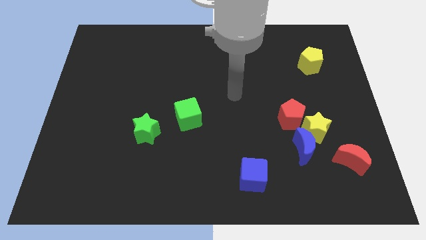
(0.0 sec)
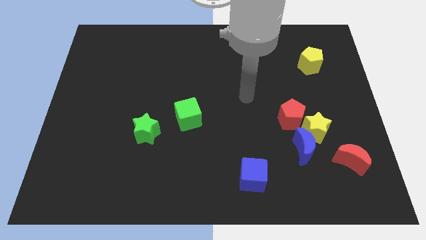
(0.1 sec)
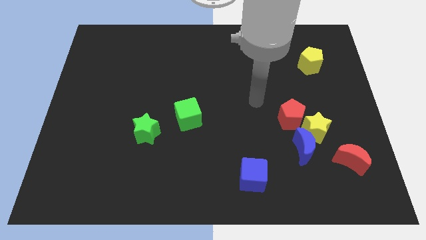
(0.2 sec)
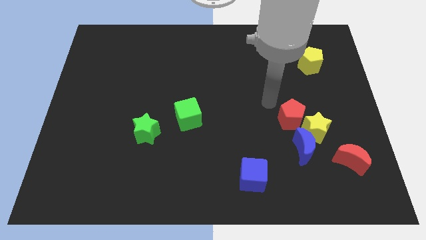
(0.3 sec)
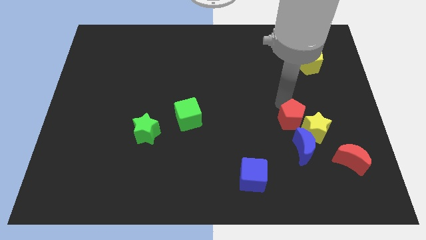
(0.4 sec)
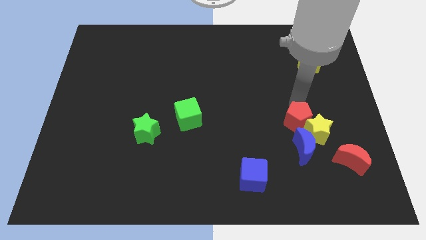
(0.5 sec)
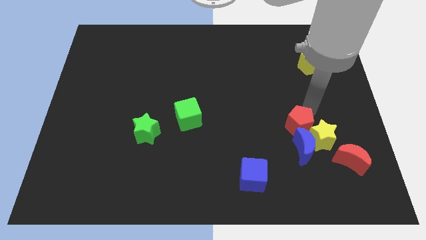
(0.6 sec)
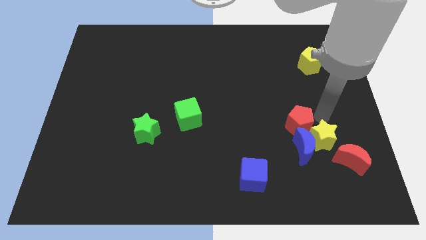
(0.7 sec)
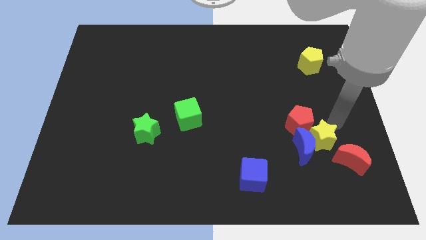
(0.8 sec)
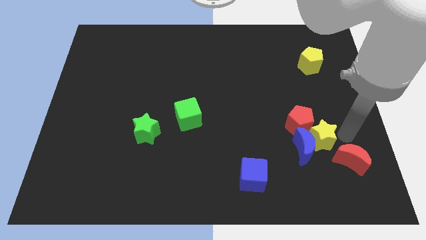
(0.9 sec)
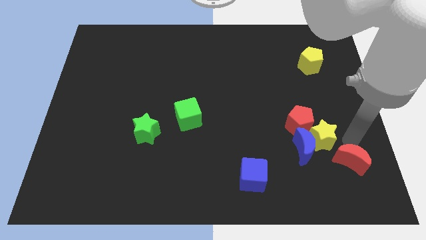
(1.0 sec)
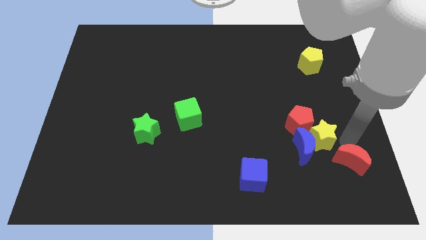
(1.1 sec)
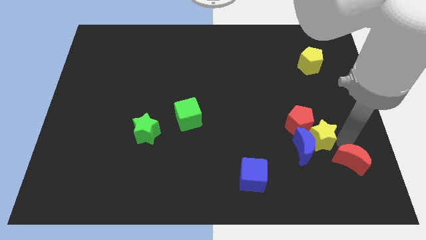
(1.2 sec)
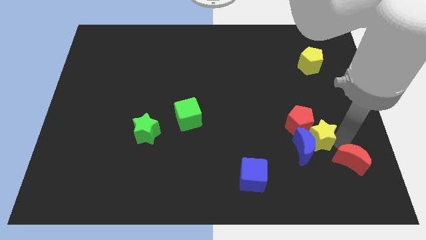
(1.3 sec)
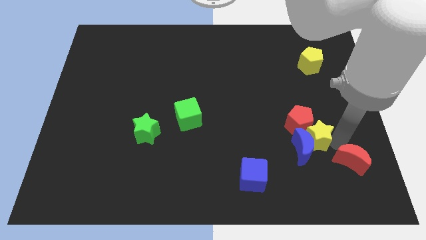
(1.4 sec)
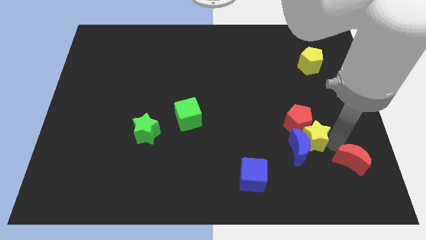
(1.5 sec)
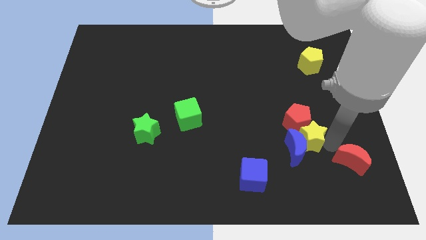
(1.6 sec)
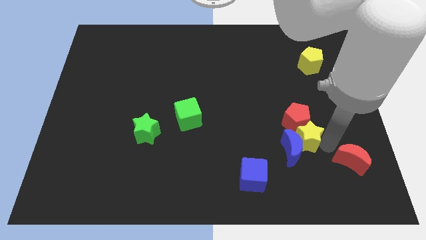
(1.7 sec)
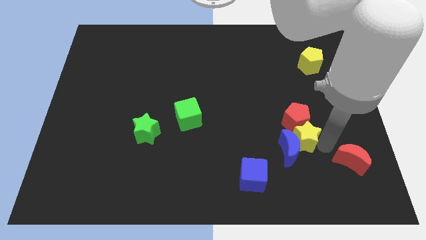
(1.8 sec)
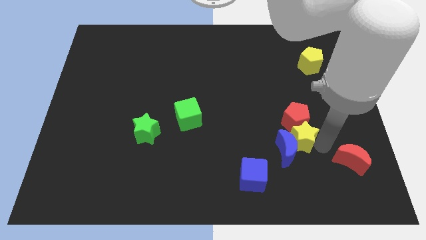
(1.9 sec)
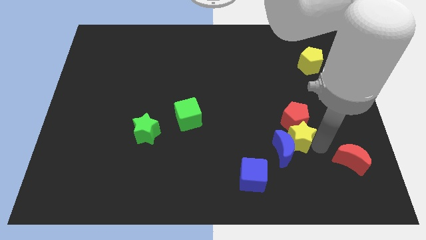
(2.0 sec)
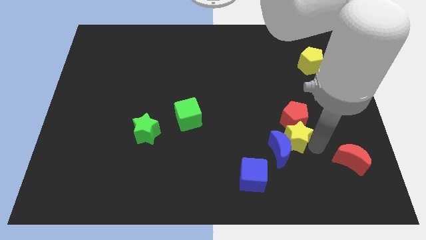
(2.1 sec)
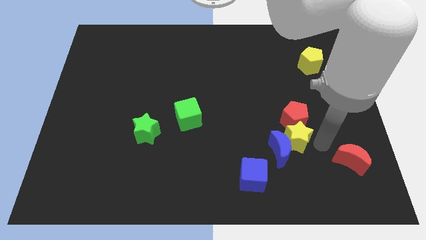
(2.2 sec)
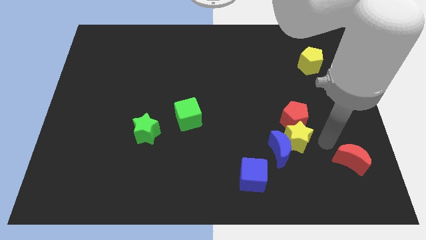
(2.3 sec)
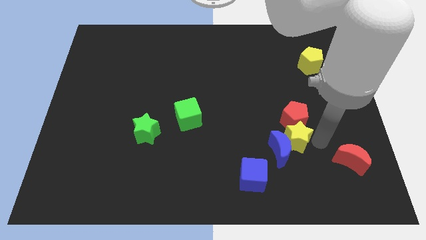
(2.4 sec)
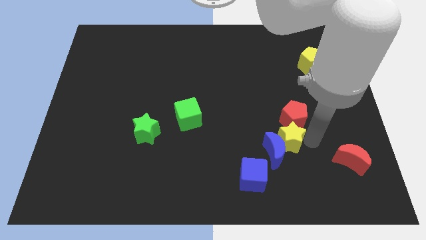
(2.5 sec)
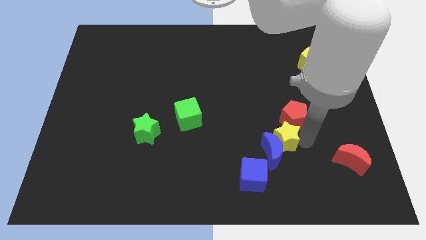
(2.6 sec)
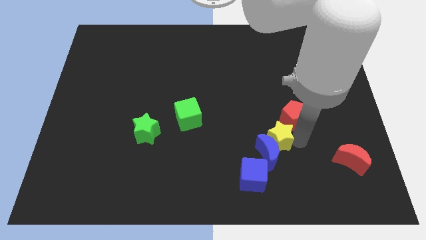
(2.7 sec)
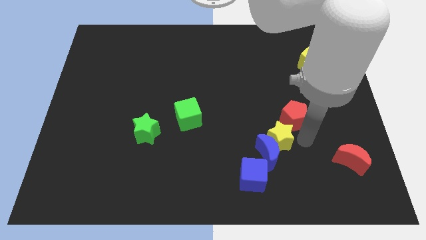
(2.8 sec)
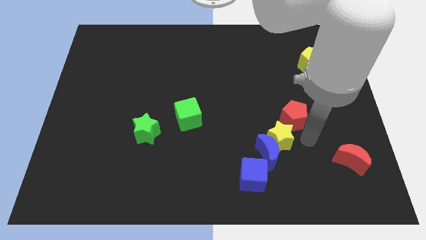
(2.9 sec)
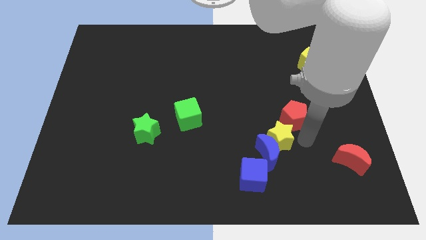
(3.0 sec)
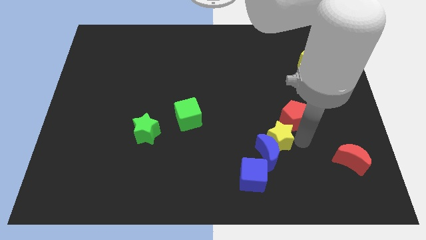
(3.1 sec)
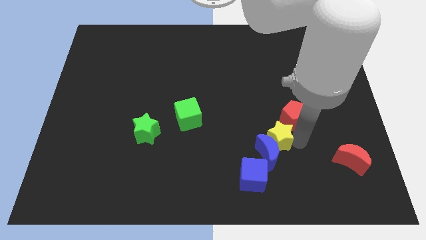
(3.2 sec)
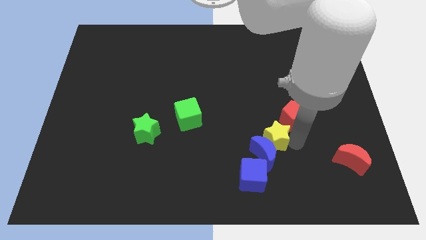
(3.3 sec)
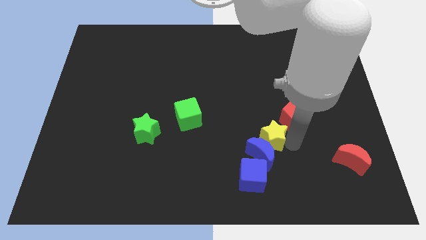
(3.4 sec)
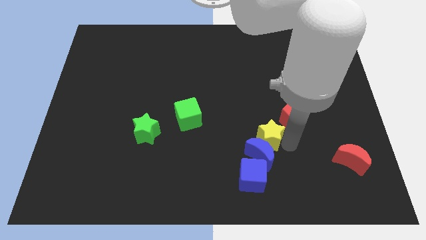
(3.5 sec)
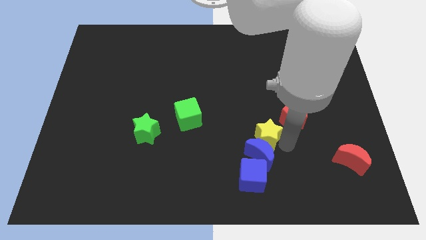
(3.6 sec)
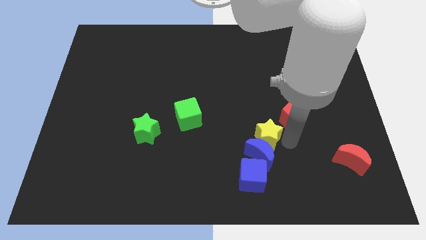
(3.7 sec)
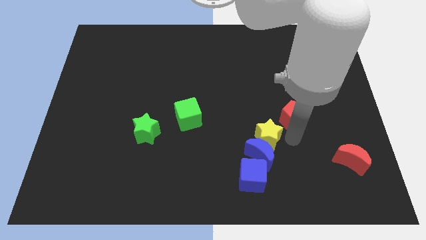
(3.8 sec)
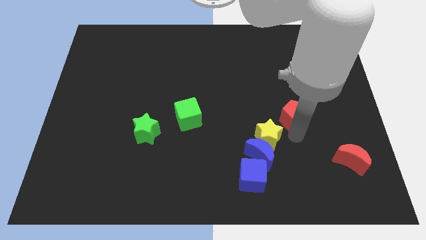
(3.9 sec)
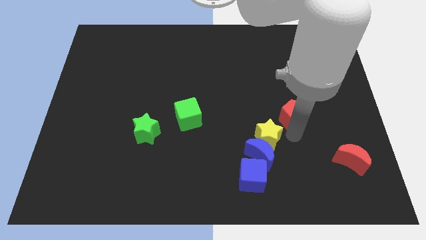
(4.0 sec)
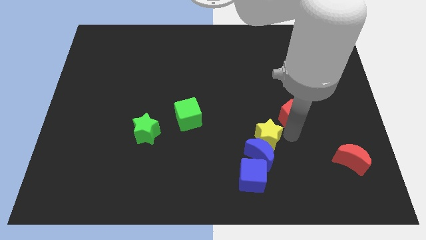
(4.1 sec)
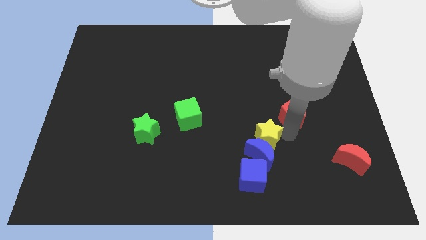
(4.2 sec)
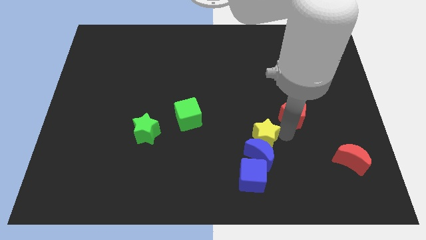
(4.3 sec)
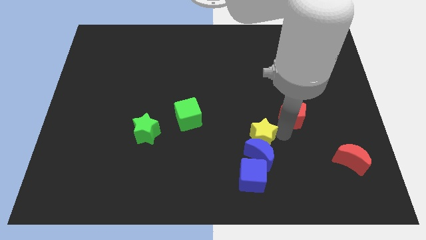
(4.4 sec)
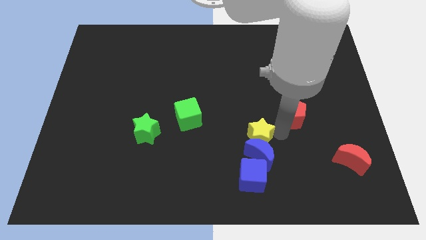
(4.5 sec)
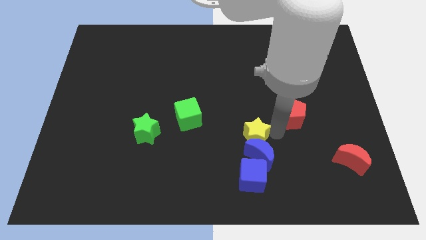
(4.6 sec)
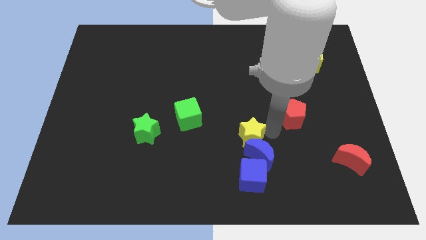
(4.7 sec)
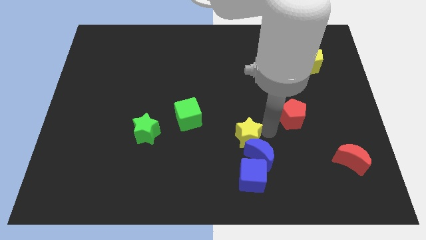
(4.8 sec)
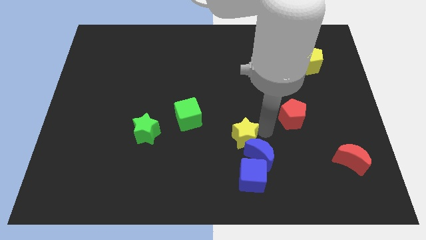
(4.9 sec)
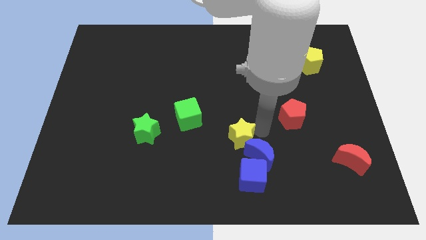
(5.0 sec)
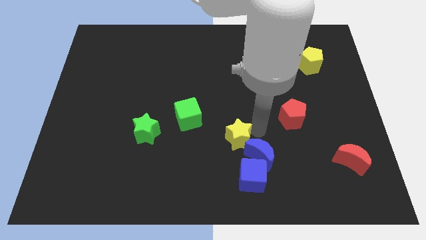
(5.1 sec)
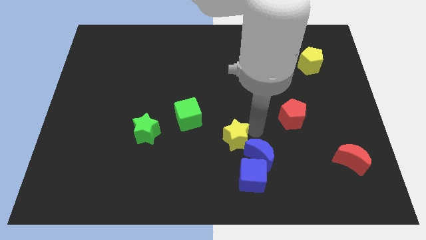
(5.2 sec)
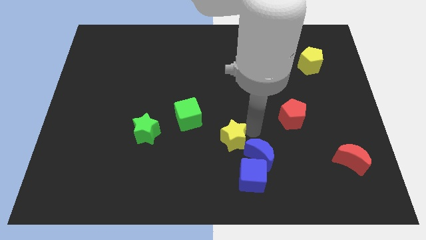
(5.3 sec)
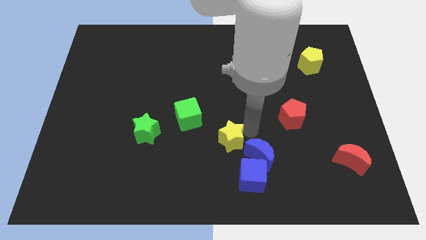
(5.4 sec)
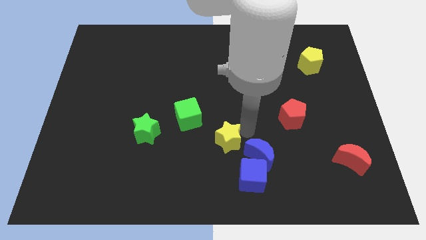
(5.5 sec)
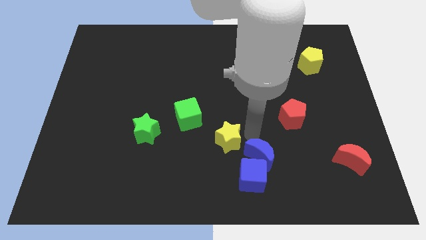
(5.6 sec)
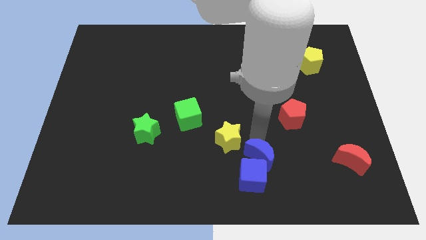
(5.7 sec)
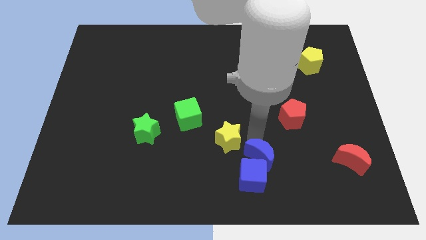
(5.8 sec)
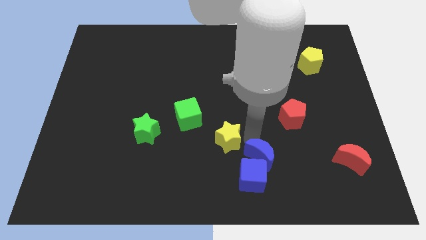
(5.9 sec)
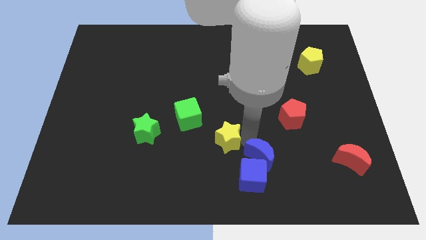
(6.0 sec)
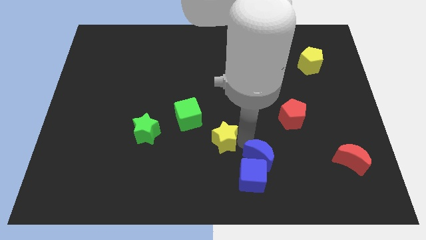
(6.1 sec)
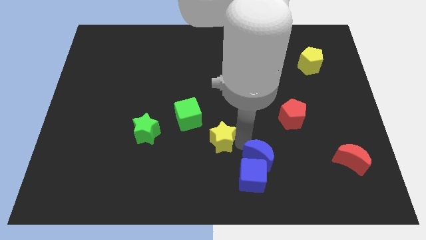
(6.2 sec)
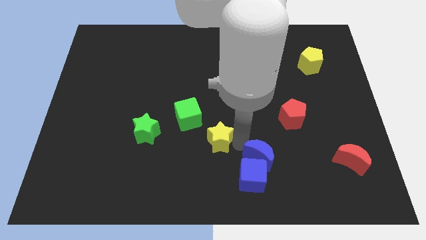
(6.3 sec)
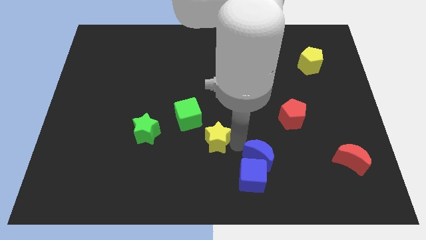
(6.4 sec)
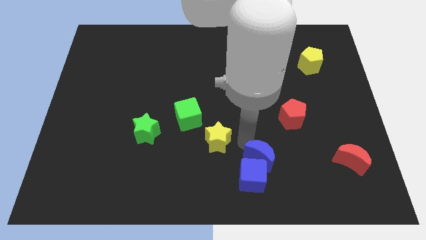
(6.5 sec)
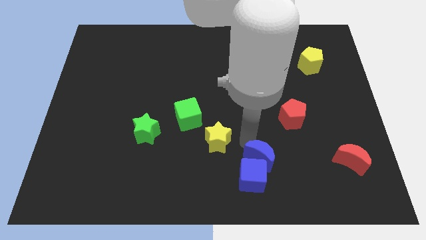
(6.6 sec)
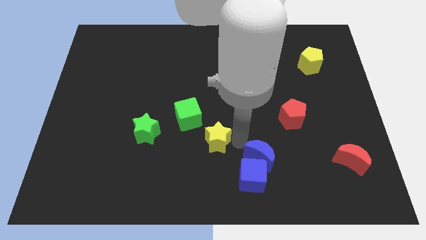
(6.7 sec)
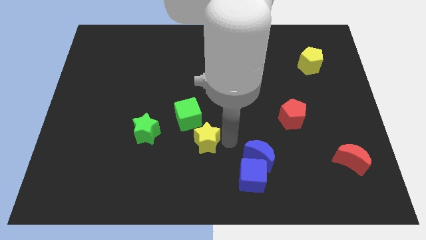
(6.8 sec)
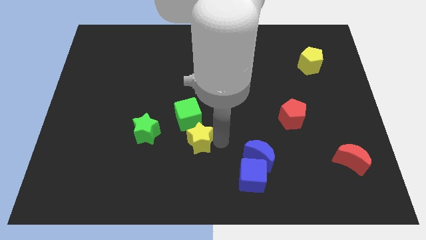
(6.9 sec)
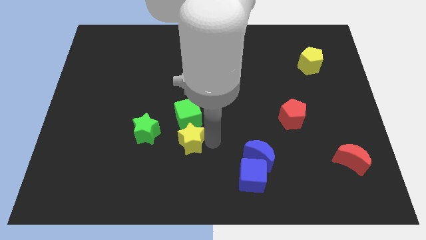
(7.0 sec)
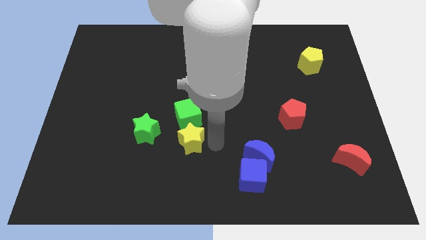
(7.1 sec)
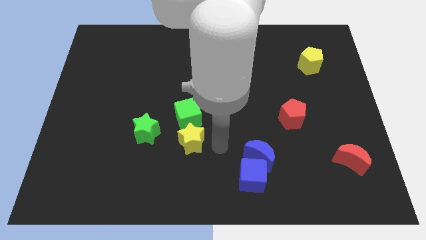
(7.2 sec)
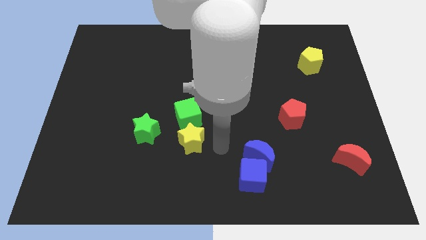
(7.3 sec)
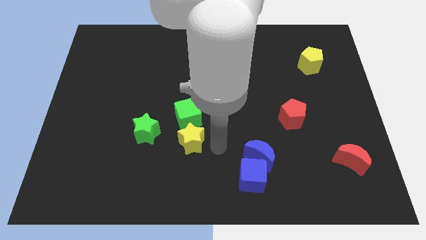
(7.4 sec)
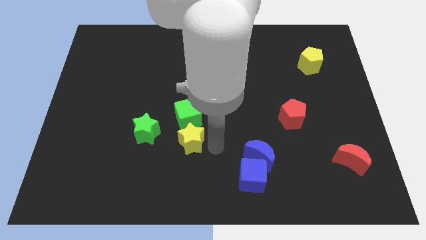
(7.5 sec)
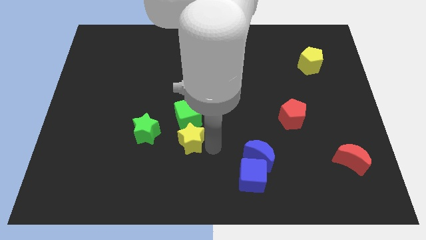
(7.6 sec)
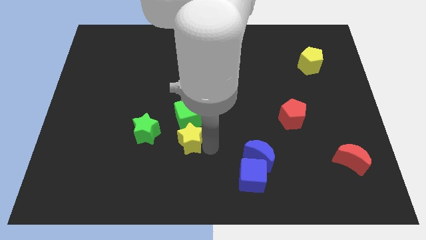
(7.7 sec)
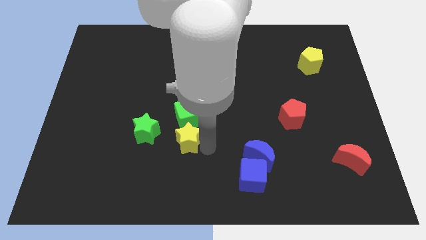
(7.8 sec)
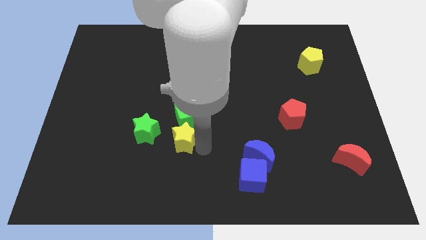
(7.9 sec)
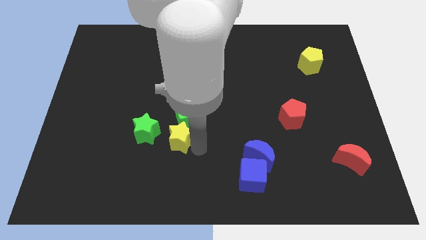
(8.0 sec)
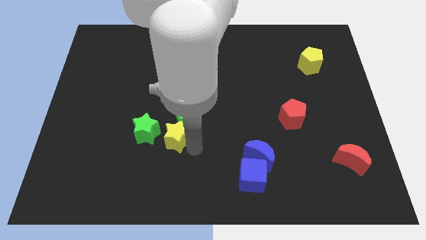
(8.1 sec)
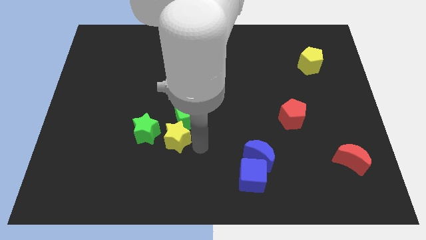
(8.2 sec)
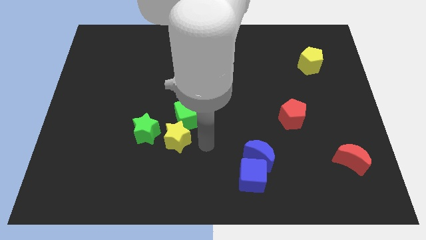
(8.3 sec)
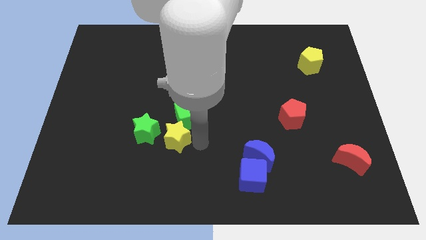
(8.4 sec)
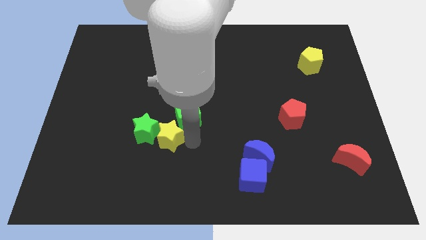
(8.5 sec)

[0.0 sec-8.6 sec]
move the yellow star next to the green star
